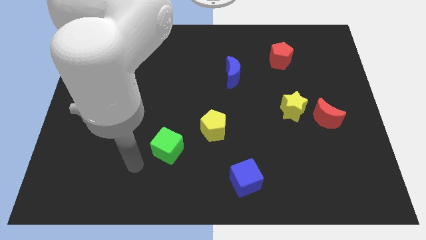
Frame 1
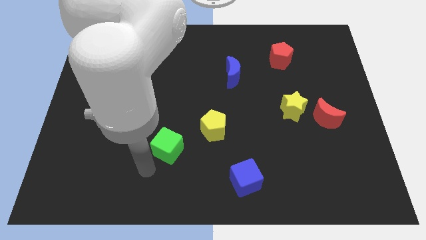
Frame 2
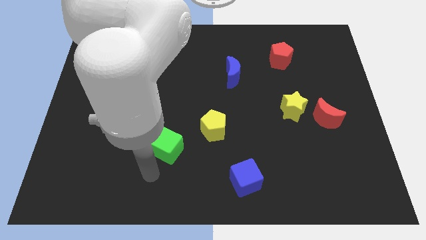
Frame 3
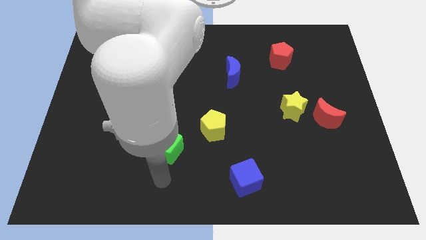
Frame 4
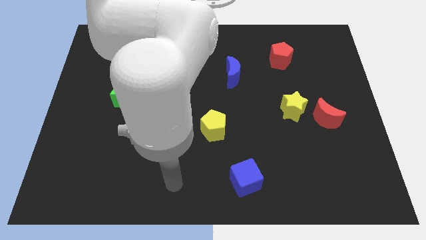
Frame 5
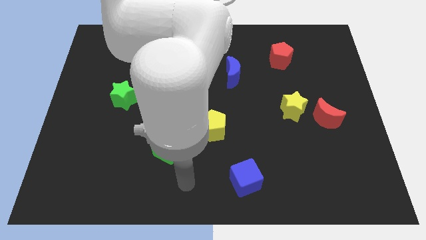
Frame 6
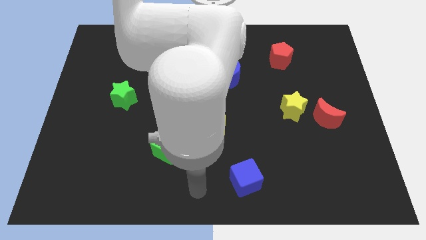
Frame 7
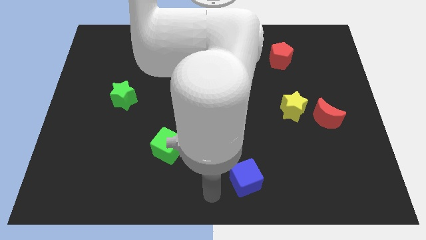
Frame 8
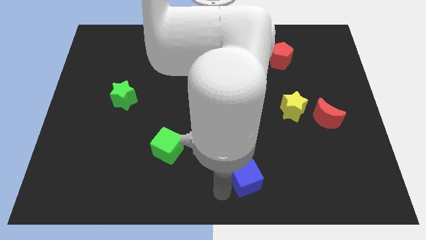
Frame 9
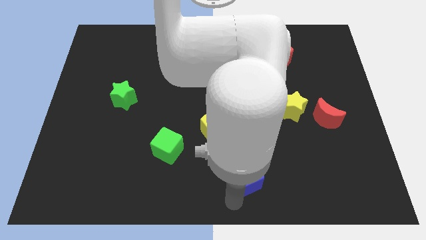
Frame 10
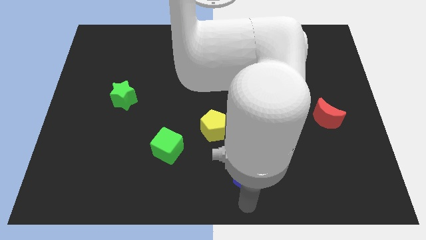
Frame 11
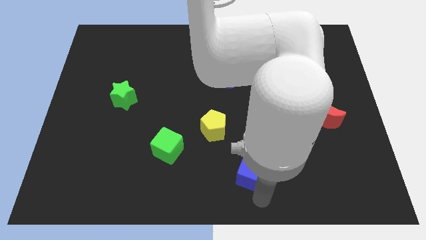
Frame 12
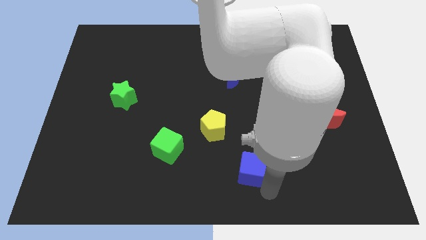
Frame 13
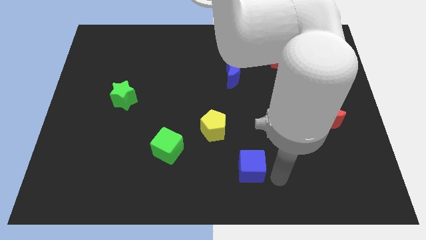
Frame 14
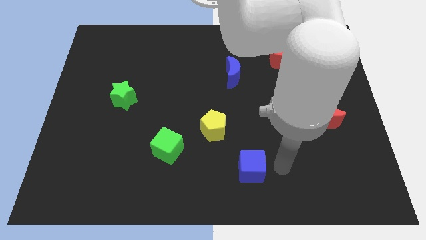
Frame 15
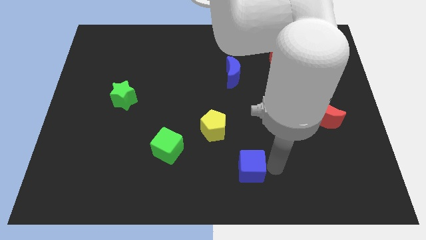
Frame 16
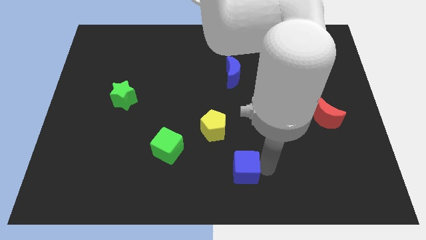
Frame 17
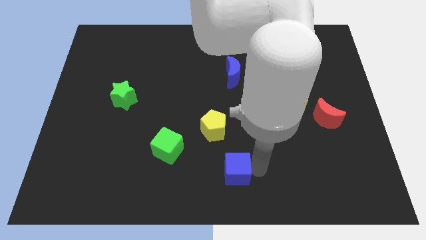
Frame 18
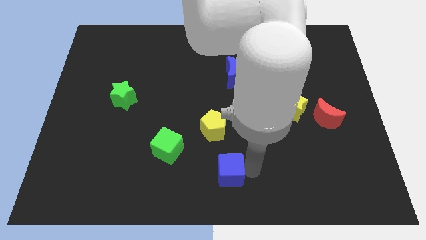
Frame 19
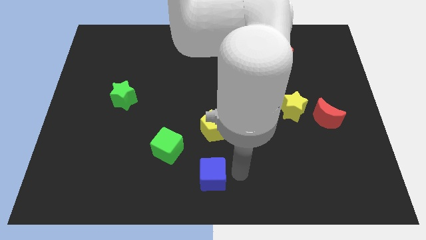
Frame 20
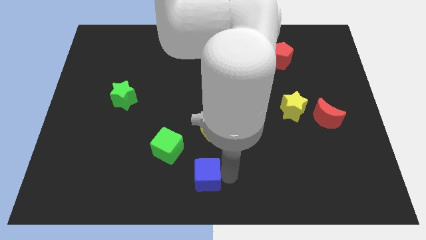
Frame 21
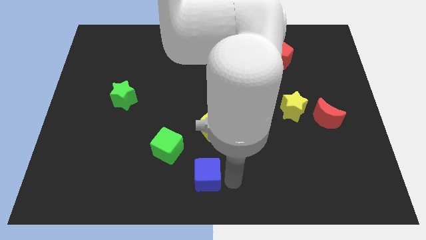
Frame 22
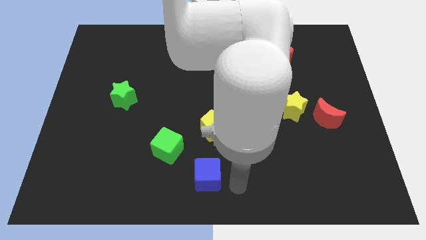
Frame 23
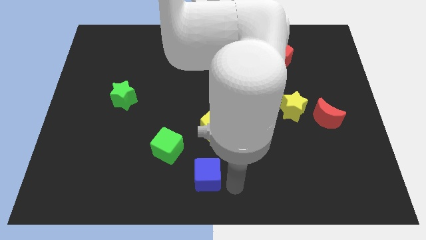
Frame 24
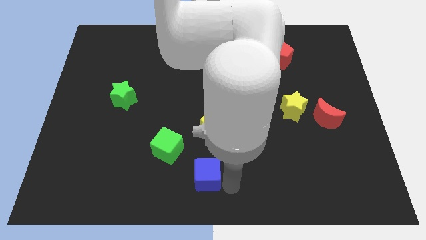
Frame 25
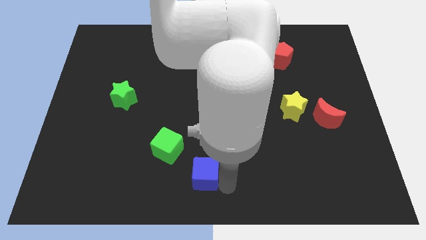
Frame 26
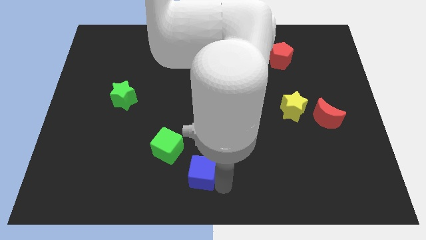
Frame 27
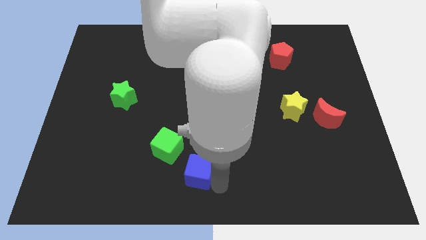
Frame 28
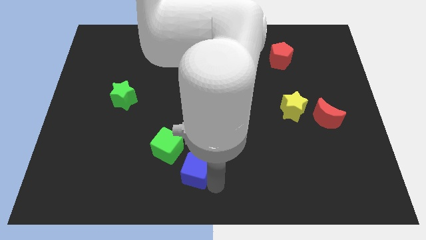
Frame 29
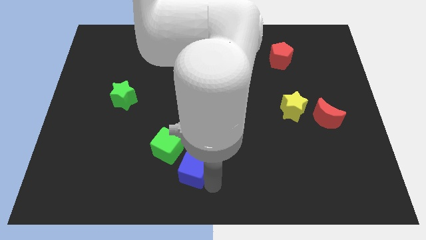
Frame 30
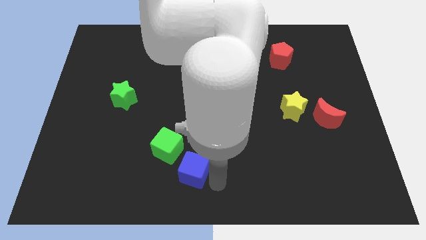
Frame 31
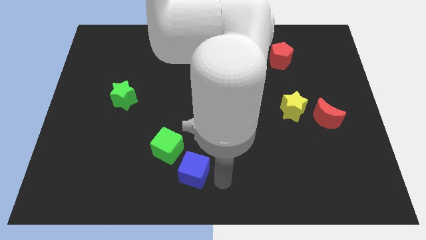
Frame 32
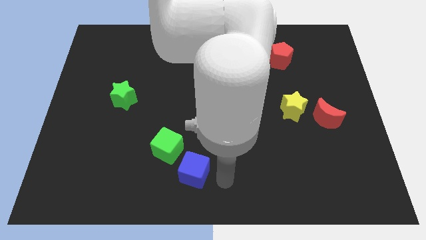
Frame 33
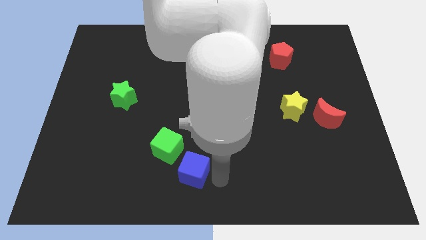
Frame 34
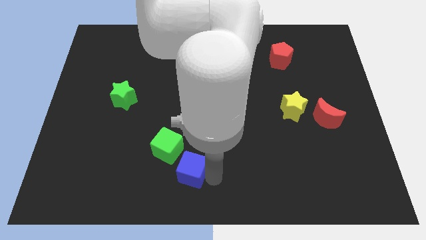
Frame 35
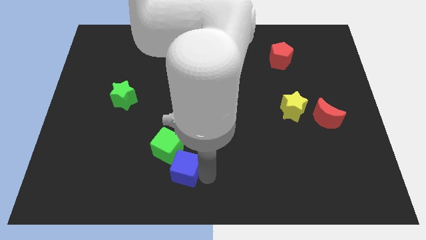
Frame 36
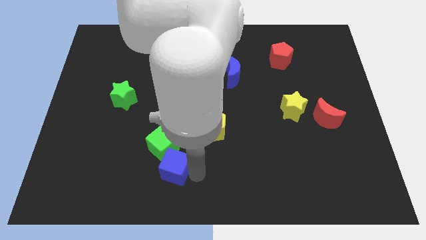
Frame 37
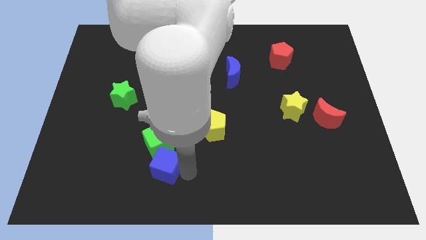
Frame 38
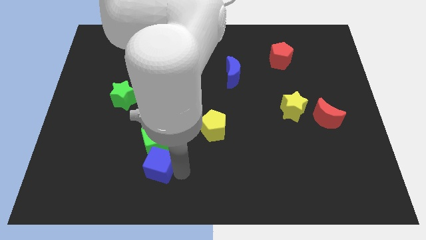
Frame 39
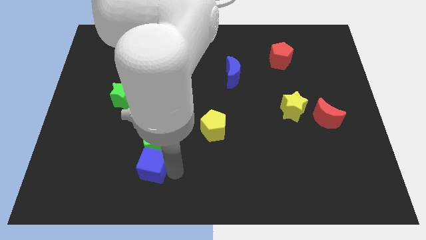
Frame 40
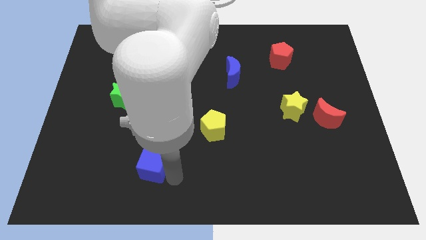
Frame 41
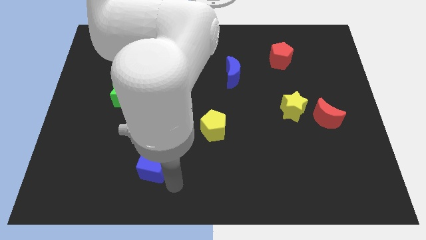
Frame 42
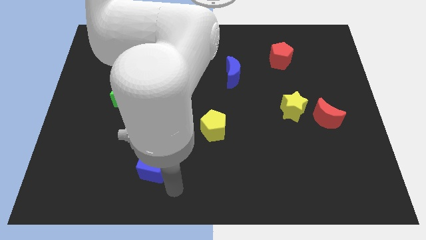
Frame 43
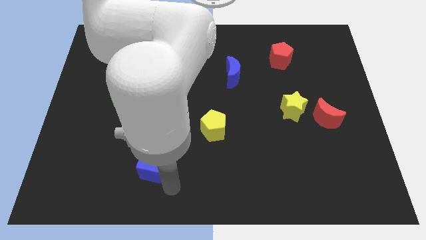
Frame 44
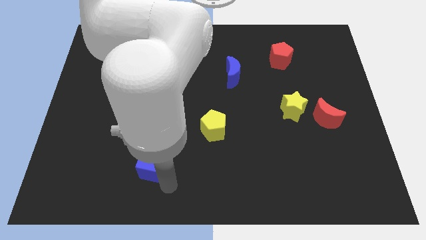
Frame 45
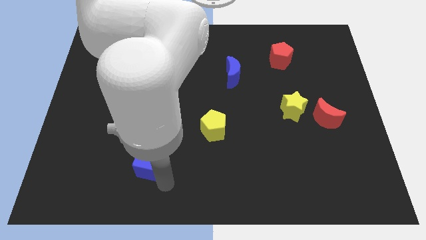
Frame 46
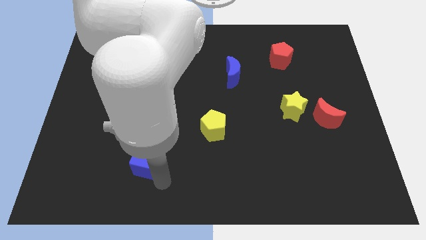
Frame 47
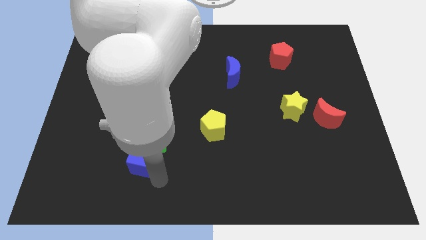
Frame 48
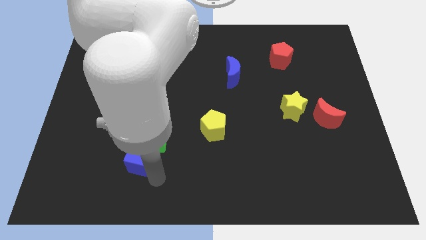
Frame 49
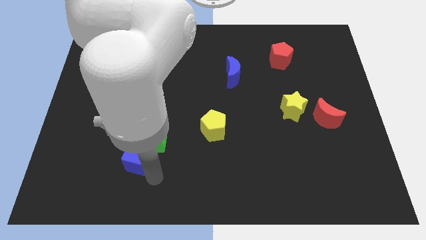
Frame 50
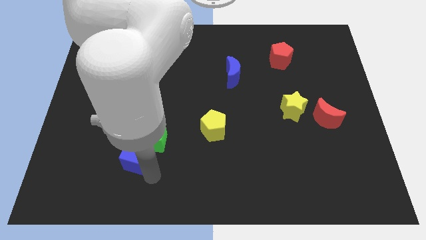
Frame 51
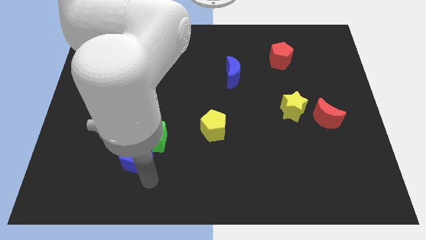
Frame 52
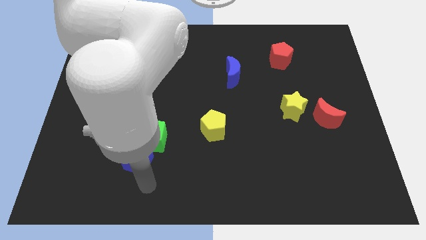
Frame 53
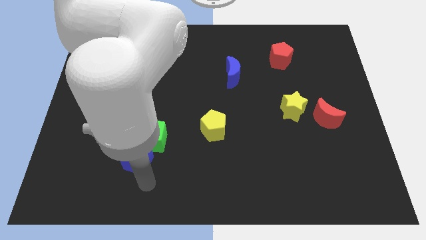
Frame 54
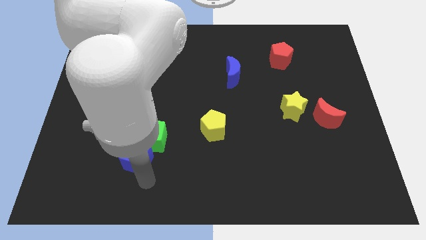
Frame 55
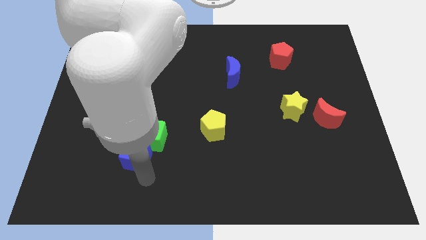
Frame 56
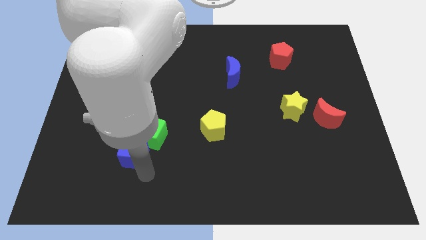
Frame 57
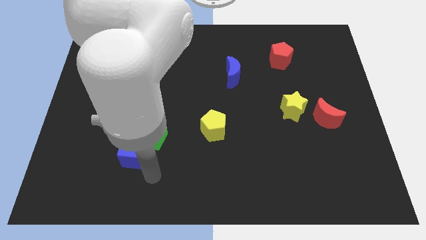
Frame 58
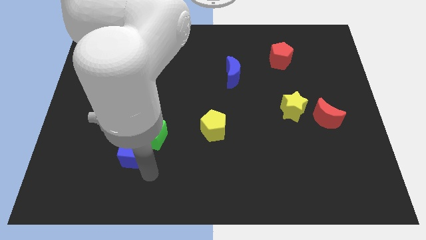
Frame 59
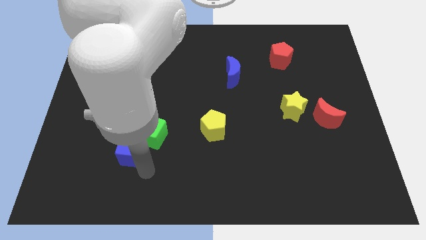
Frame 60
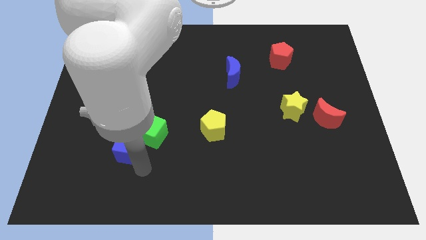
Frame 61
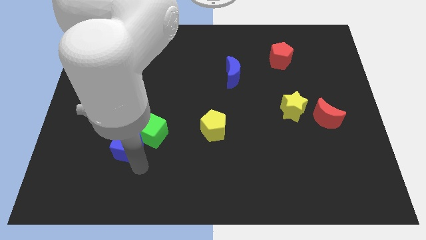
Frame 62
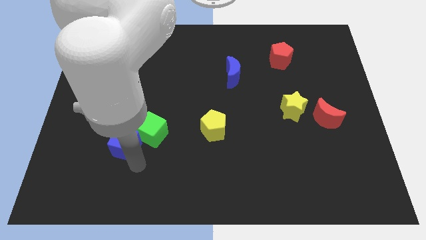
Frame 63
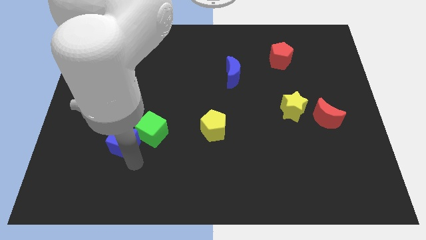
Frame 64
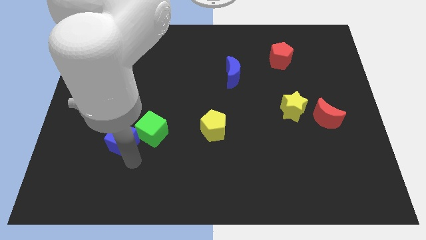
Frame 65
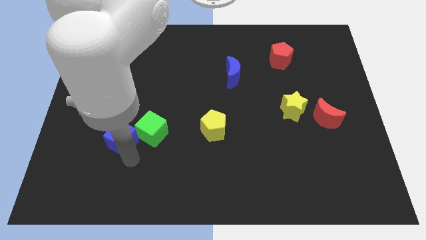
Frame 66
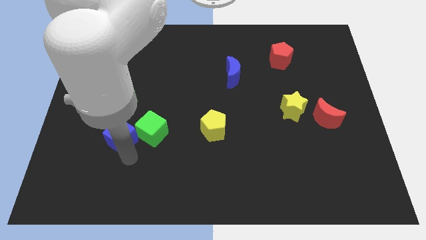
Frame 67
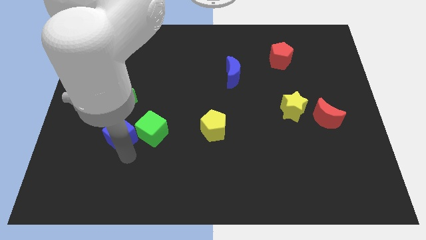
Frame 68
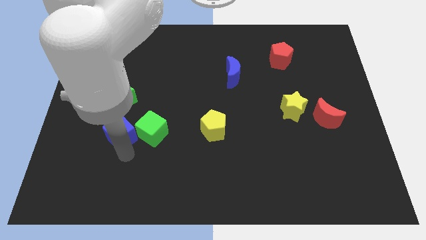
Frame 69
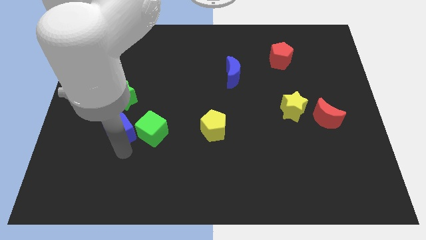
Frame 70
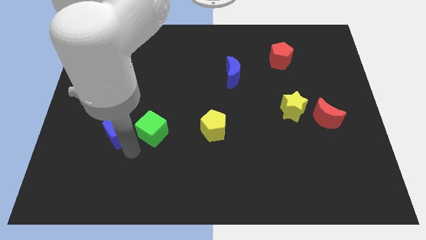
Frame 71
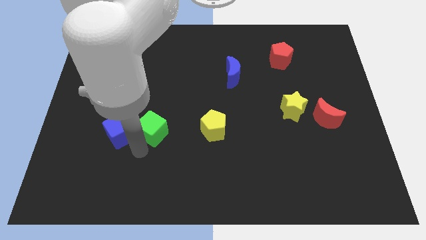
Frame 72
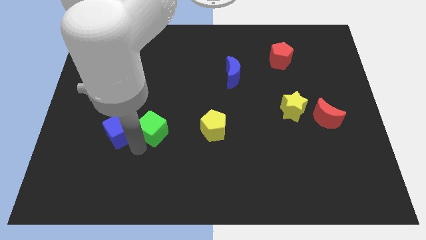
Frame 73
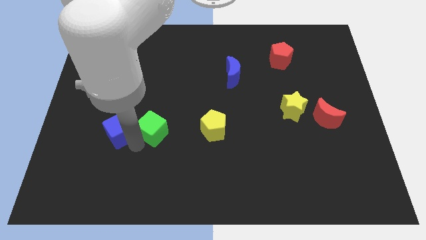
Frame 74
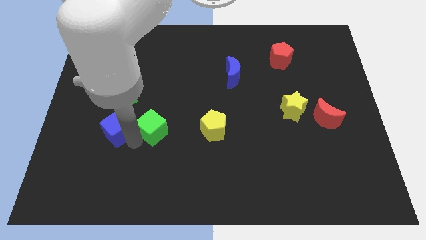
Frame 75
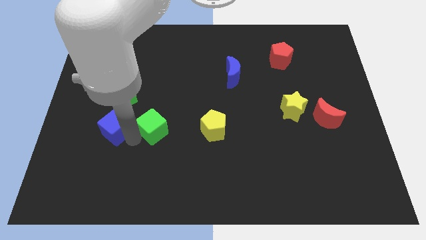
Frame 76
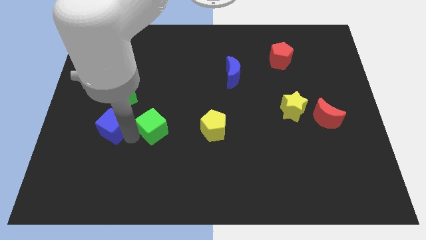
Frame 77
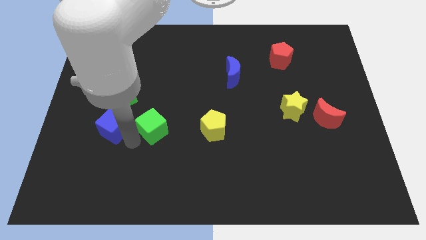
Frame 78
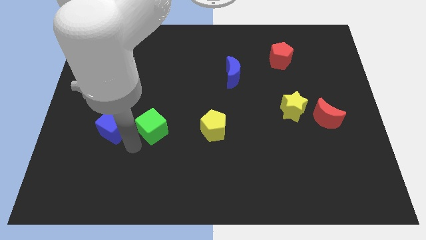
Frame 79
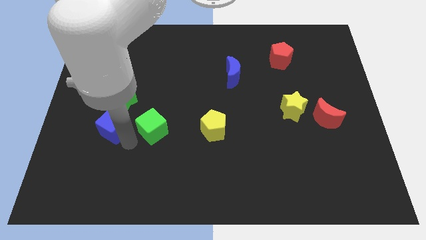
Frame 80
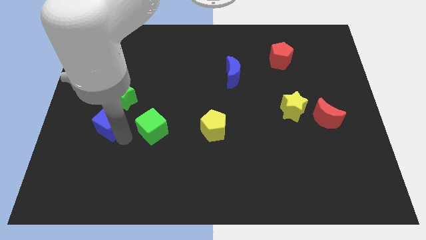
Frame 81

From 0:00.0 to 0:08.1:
push the blue cube diagonally down and to the left of the green star
